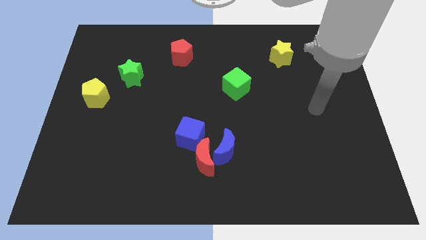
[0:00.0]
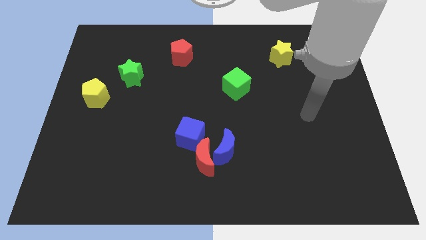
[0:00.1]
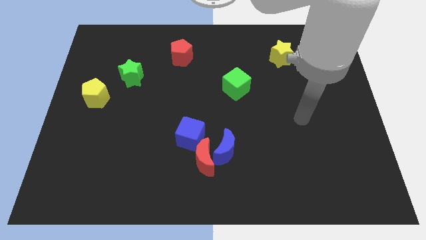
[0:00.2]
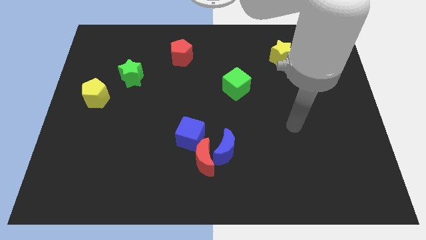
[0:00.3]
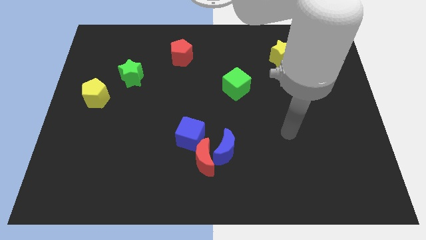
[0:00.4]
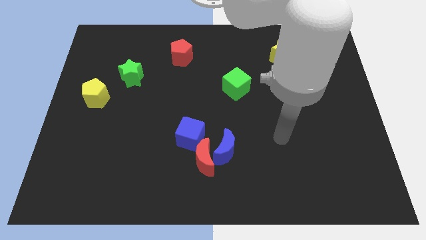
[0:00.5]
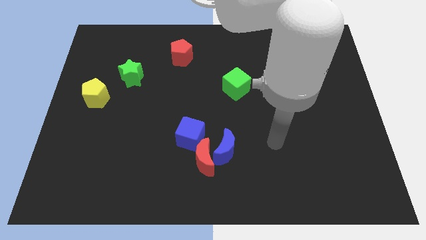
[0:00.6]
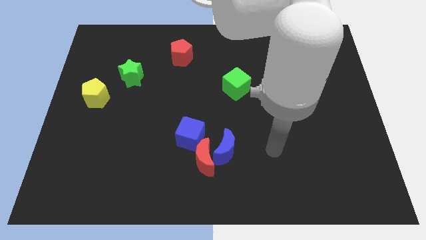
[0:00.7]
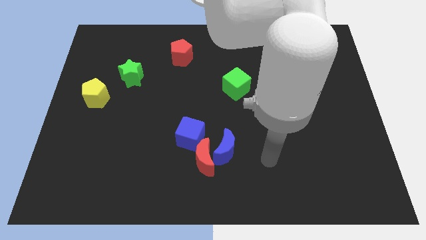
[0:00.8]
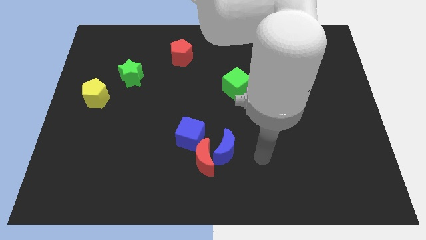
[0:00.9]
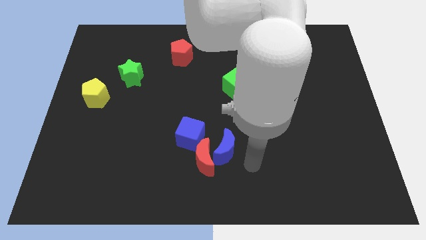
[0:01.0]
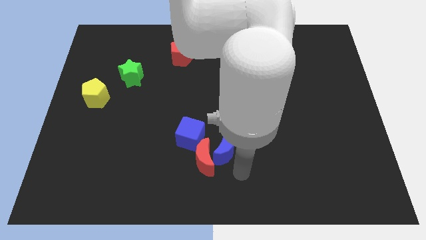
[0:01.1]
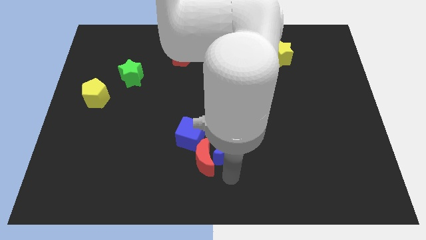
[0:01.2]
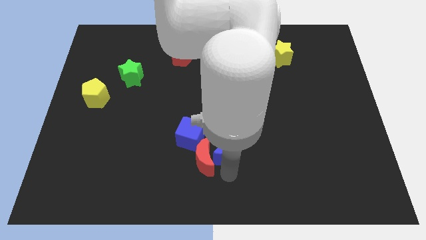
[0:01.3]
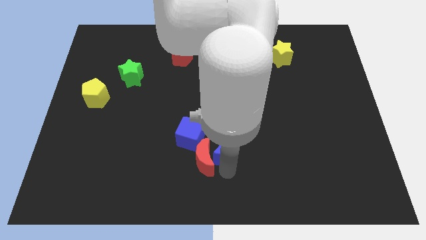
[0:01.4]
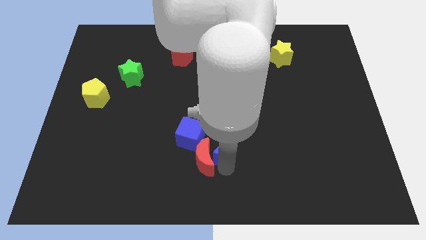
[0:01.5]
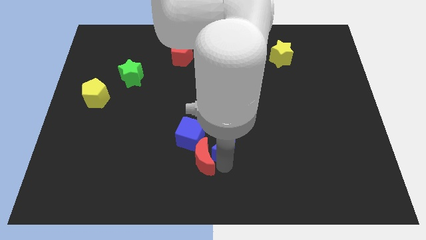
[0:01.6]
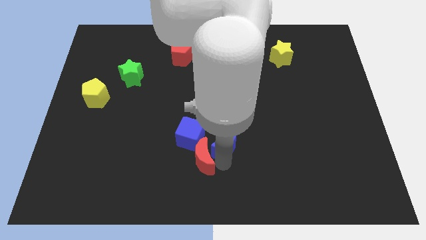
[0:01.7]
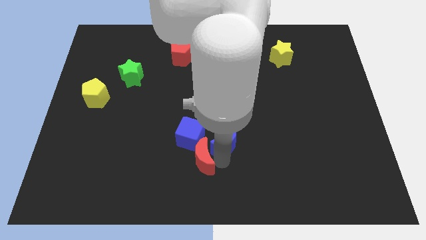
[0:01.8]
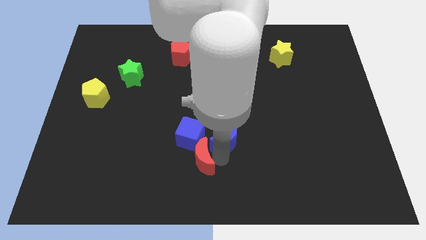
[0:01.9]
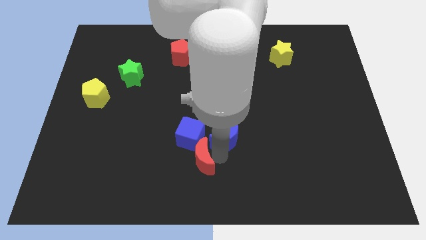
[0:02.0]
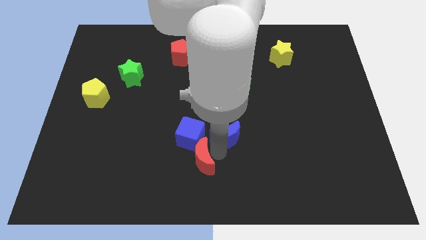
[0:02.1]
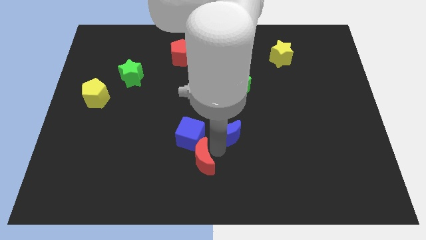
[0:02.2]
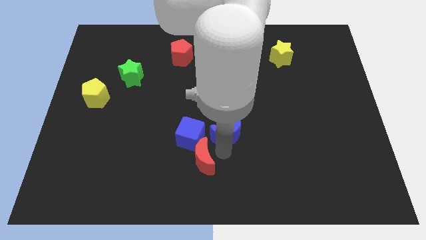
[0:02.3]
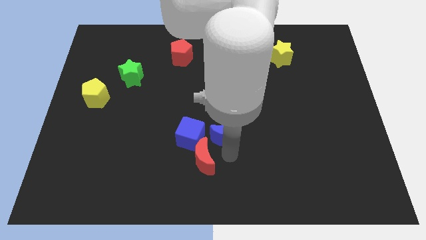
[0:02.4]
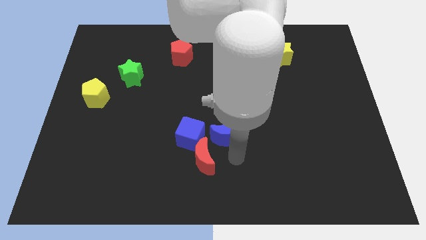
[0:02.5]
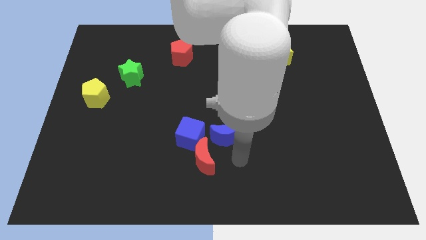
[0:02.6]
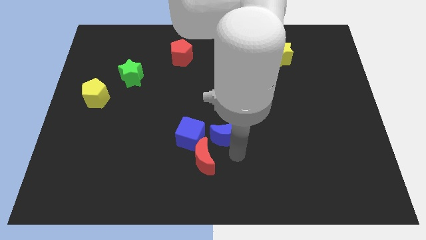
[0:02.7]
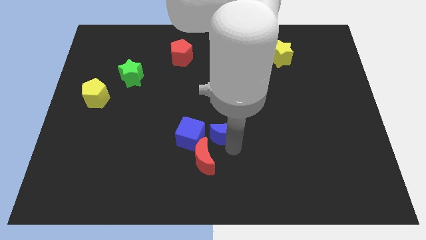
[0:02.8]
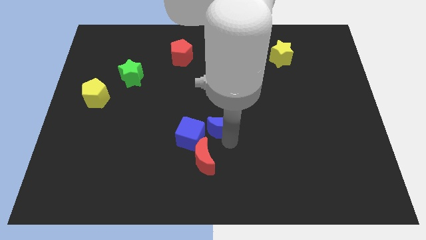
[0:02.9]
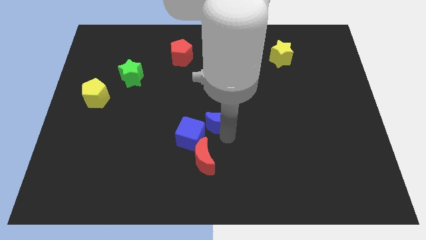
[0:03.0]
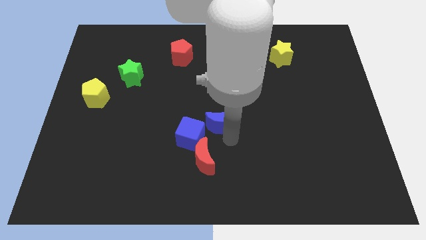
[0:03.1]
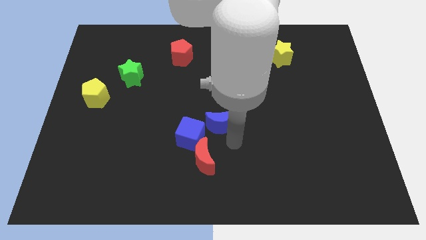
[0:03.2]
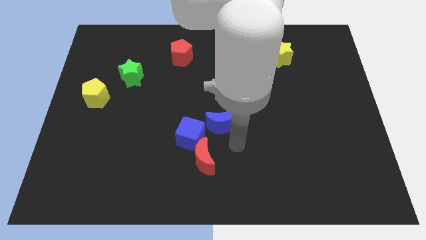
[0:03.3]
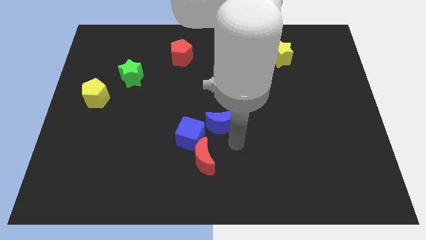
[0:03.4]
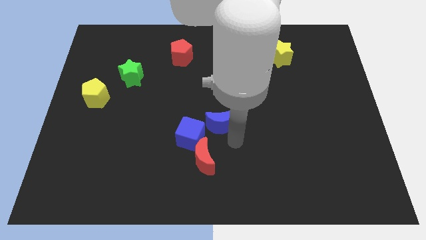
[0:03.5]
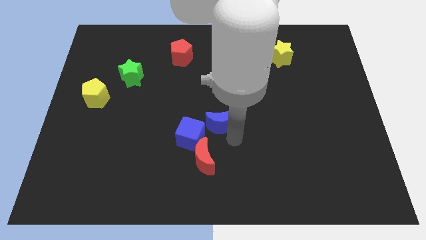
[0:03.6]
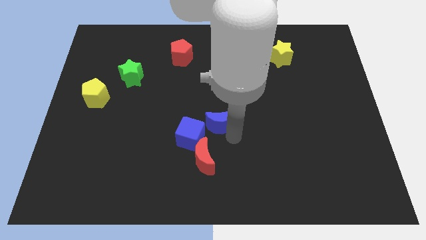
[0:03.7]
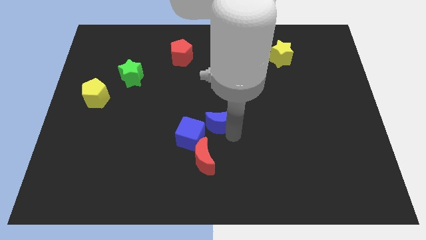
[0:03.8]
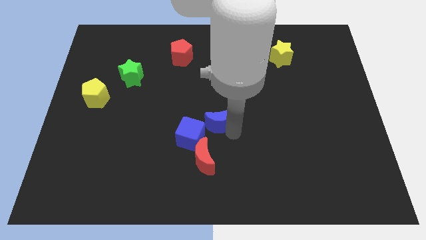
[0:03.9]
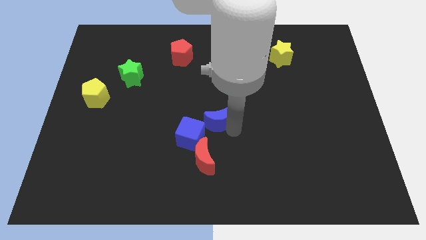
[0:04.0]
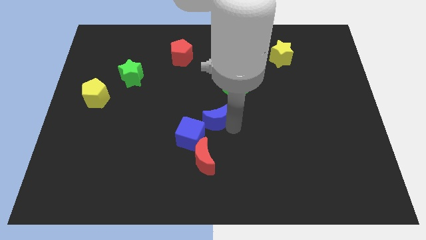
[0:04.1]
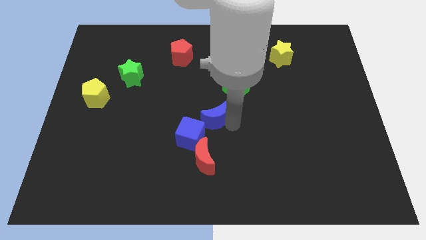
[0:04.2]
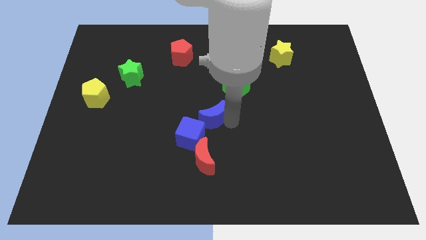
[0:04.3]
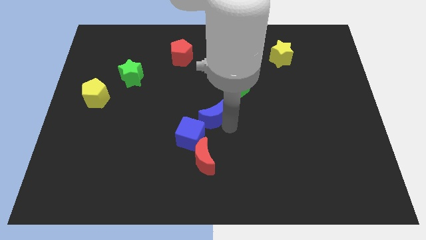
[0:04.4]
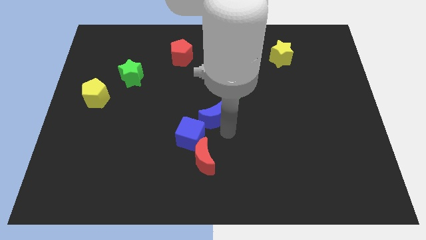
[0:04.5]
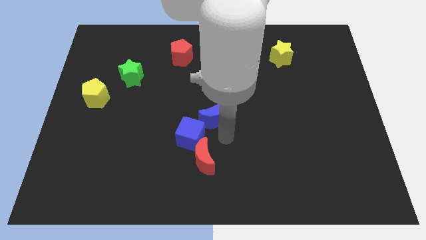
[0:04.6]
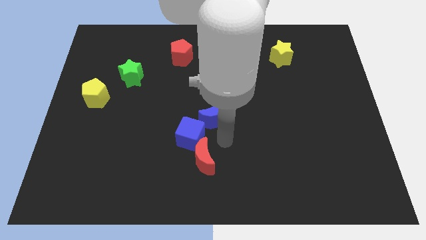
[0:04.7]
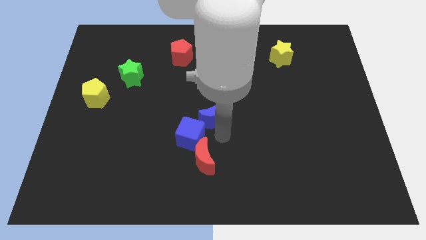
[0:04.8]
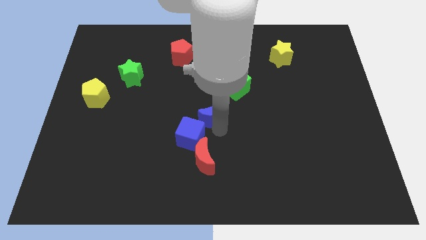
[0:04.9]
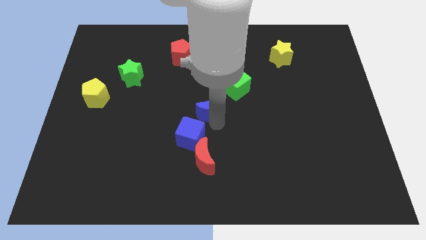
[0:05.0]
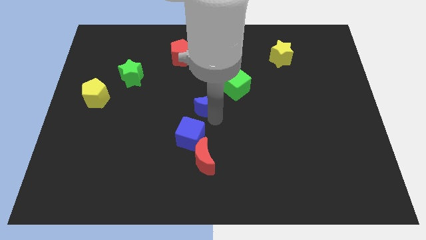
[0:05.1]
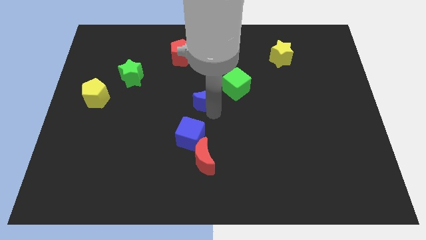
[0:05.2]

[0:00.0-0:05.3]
push the blue moon to the left of the green cube
